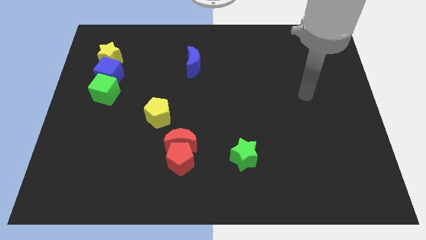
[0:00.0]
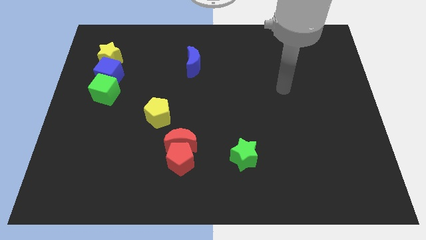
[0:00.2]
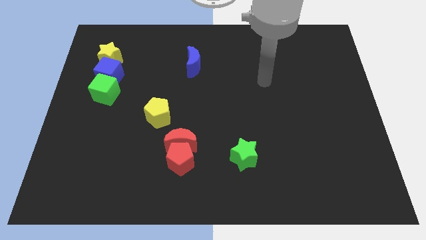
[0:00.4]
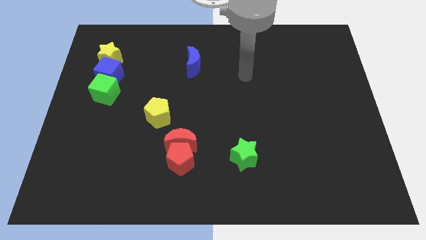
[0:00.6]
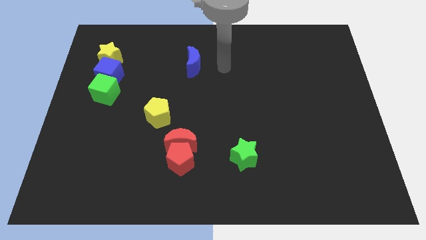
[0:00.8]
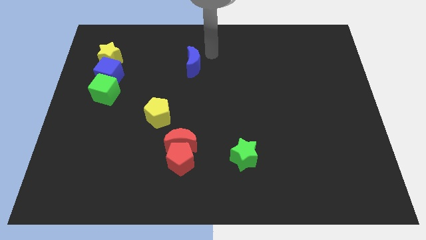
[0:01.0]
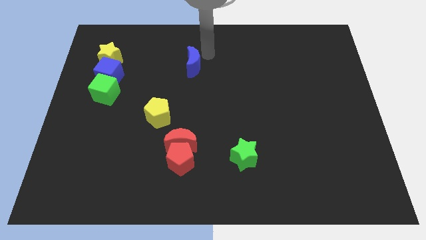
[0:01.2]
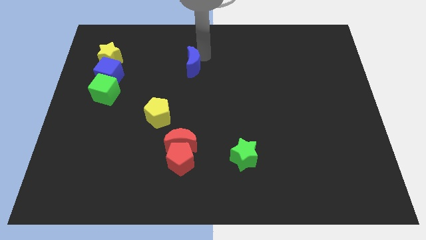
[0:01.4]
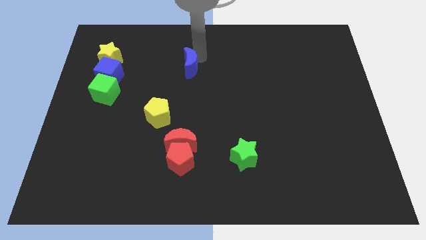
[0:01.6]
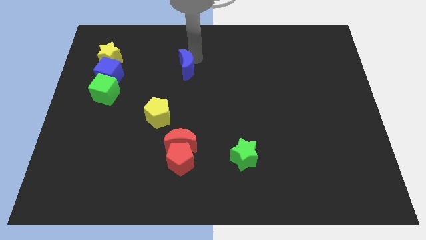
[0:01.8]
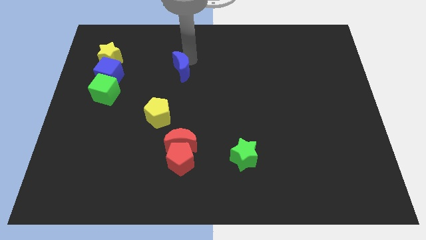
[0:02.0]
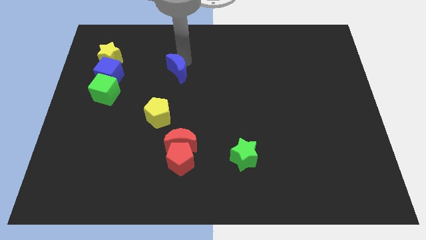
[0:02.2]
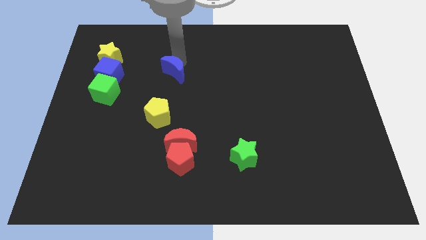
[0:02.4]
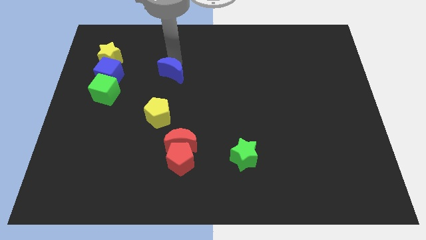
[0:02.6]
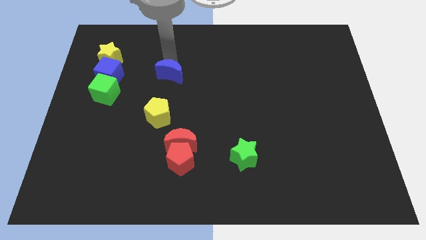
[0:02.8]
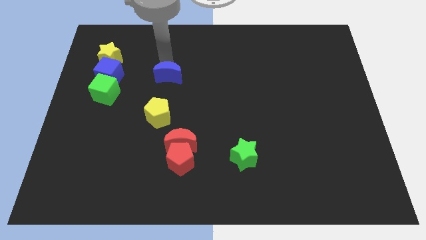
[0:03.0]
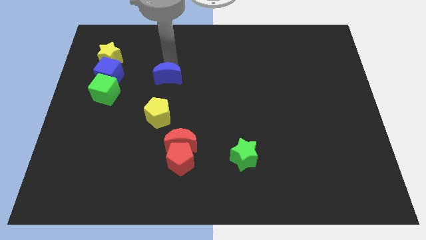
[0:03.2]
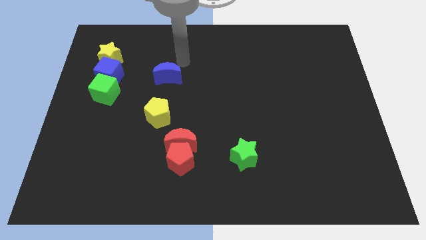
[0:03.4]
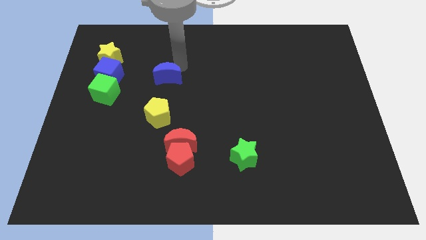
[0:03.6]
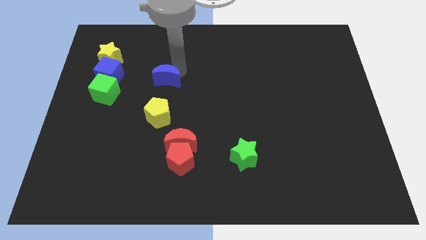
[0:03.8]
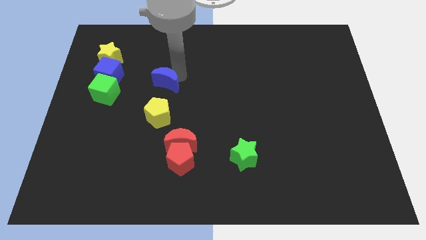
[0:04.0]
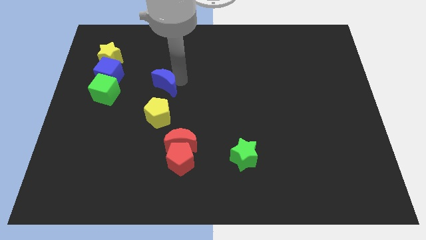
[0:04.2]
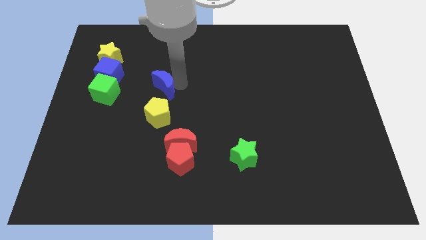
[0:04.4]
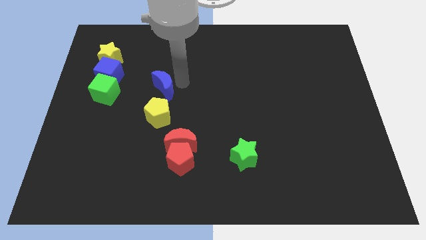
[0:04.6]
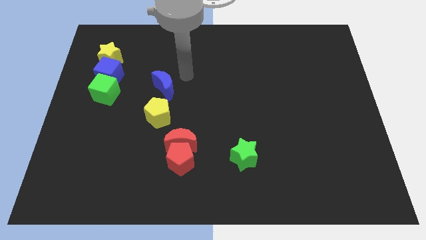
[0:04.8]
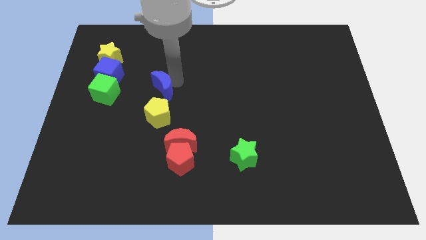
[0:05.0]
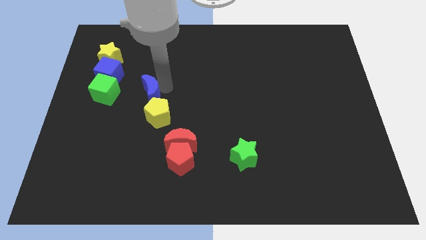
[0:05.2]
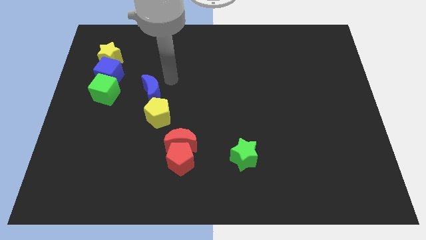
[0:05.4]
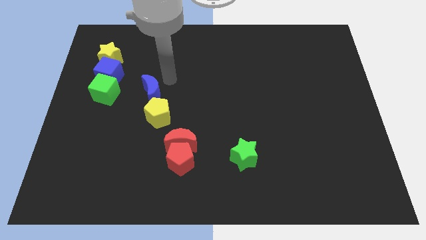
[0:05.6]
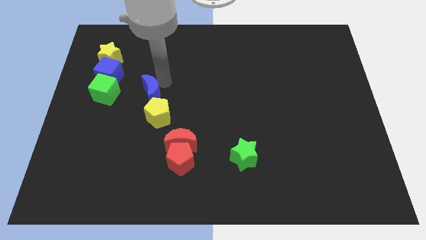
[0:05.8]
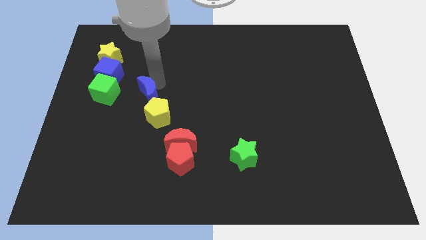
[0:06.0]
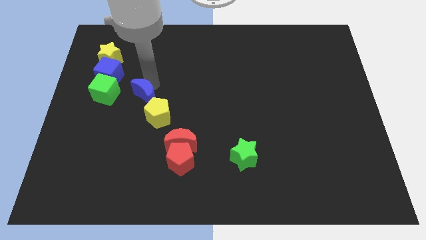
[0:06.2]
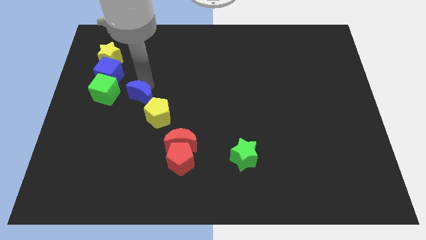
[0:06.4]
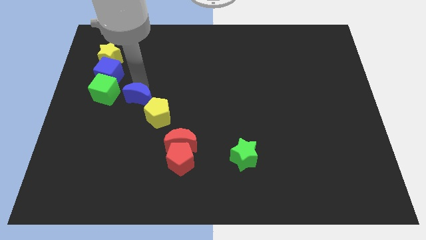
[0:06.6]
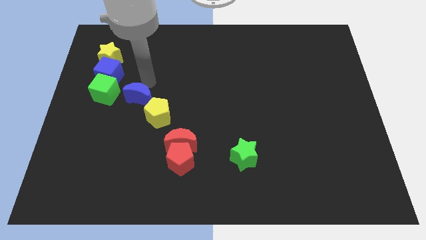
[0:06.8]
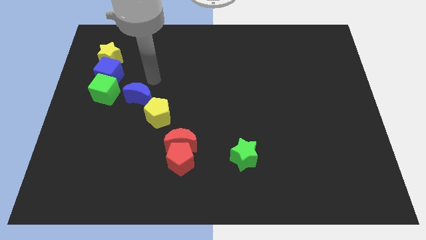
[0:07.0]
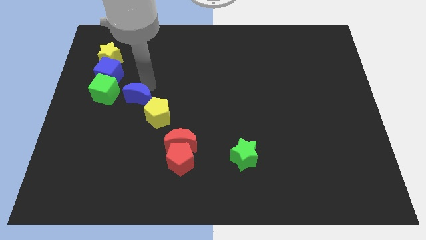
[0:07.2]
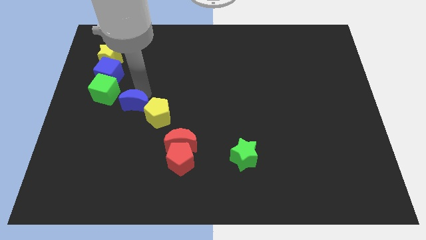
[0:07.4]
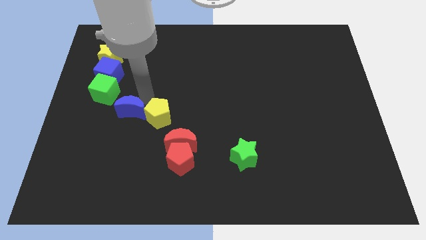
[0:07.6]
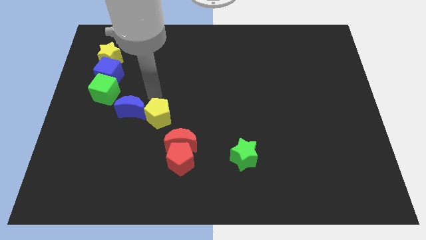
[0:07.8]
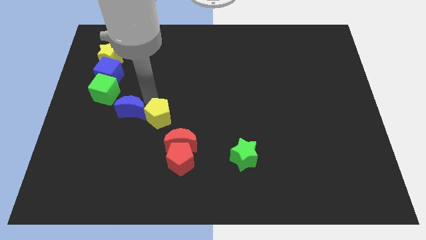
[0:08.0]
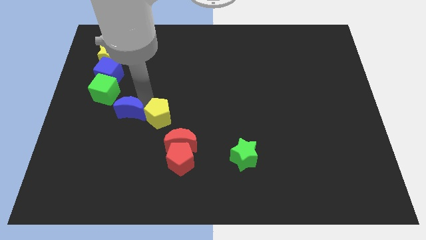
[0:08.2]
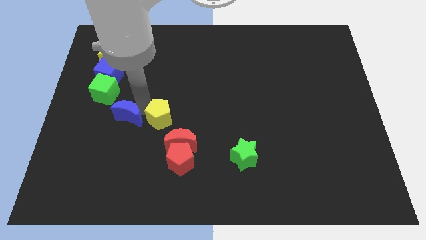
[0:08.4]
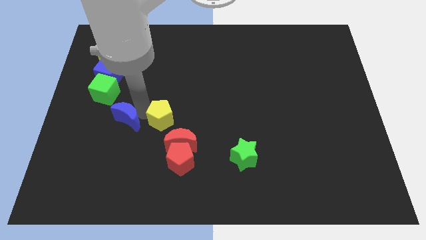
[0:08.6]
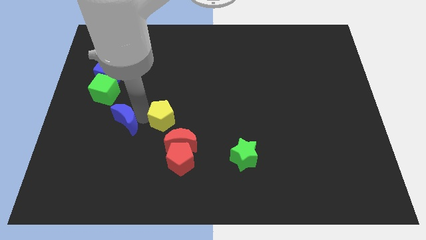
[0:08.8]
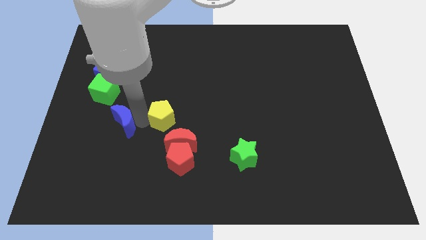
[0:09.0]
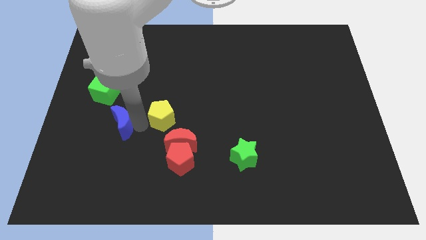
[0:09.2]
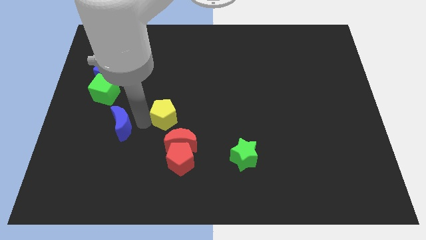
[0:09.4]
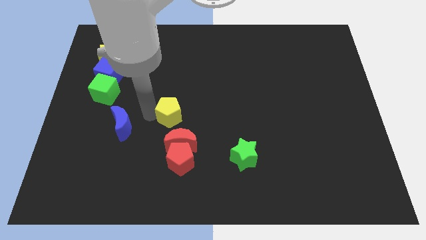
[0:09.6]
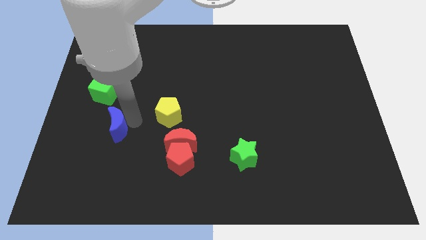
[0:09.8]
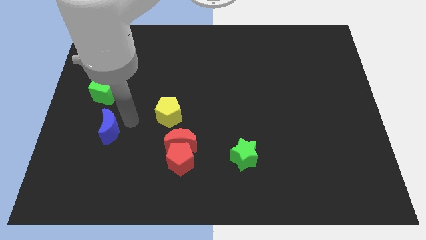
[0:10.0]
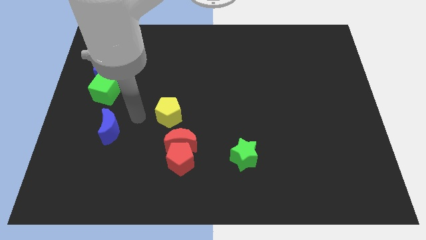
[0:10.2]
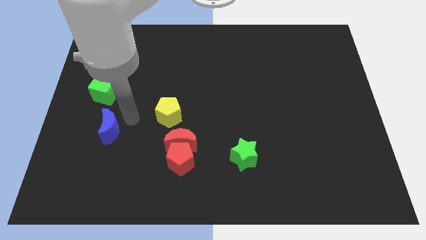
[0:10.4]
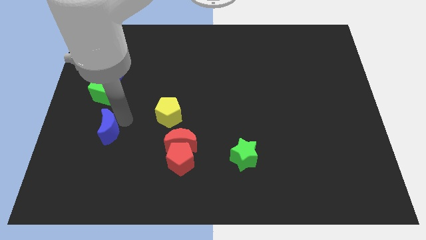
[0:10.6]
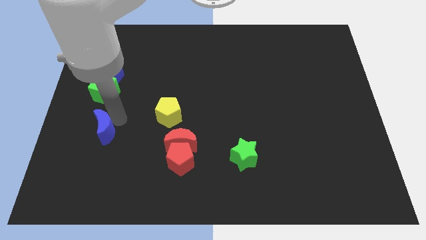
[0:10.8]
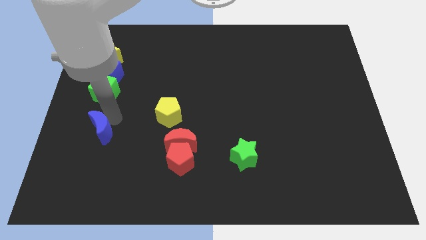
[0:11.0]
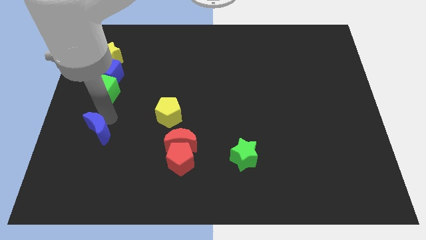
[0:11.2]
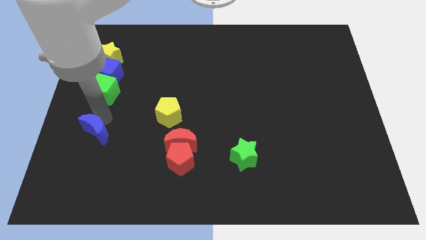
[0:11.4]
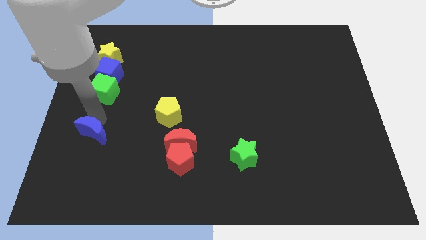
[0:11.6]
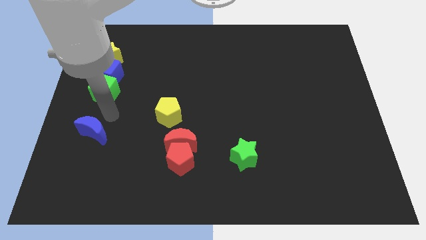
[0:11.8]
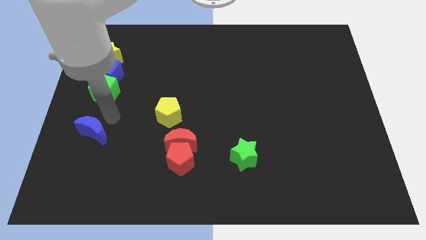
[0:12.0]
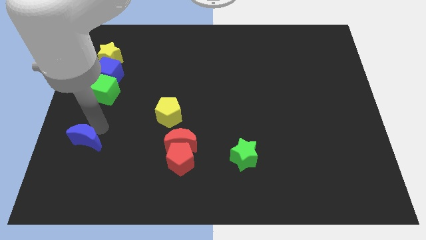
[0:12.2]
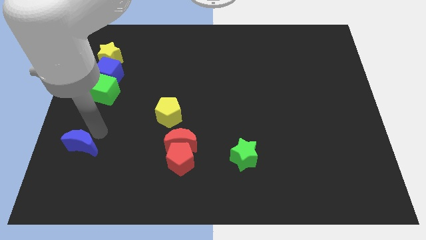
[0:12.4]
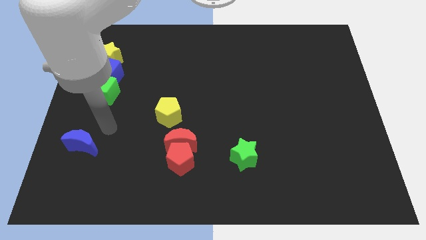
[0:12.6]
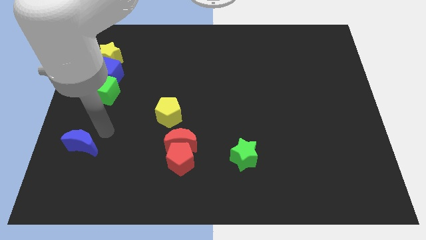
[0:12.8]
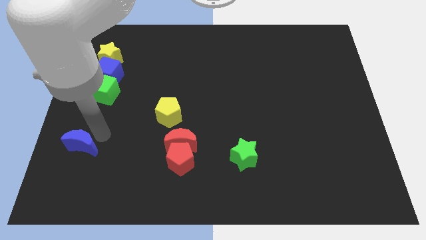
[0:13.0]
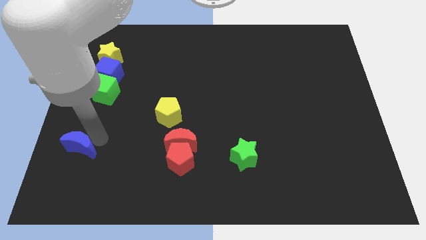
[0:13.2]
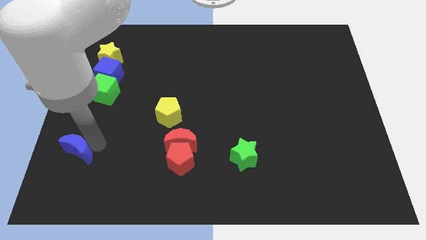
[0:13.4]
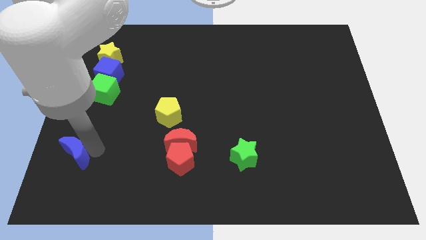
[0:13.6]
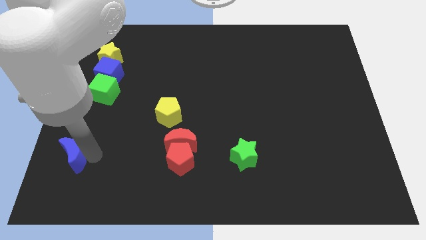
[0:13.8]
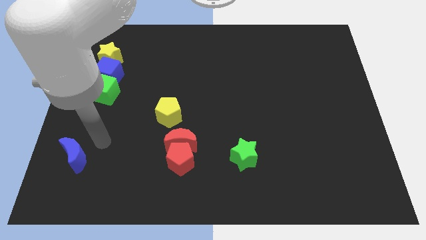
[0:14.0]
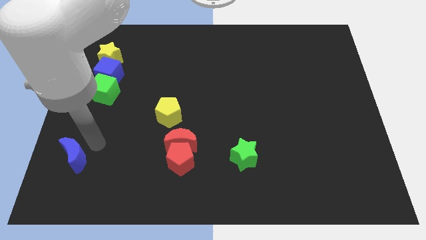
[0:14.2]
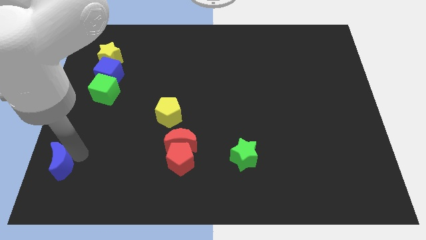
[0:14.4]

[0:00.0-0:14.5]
push the blue moon to the lower left corner
